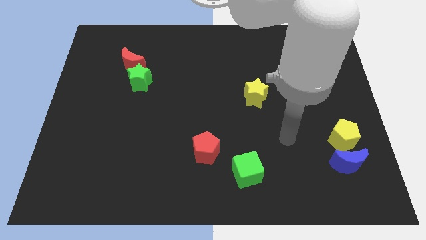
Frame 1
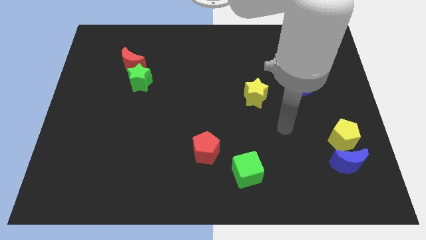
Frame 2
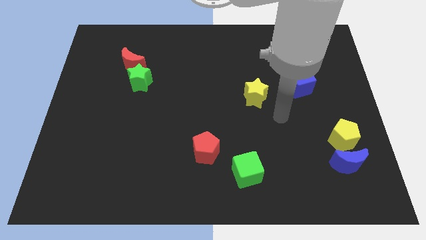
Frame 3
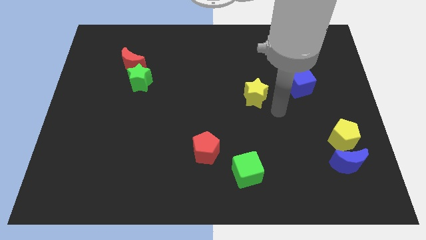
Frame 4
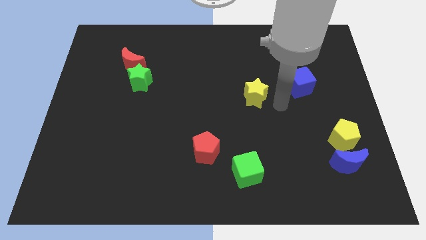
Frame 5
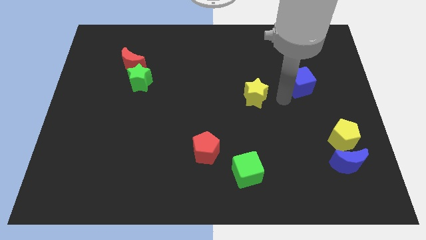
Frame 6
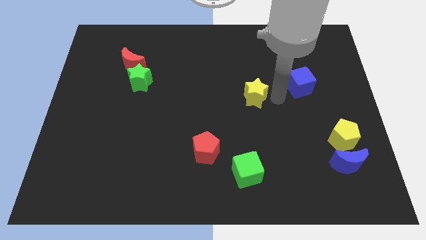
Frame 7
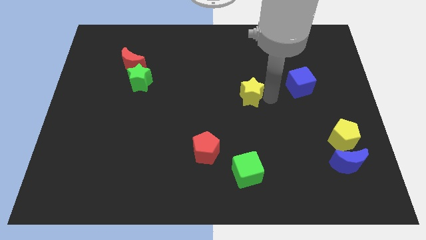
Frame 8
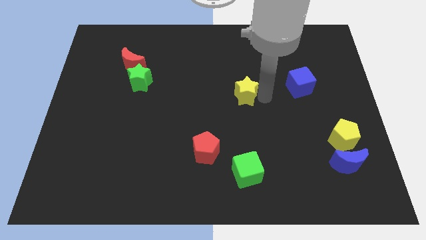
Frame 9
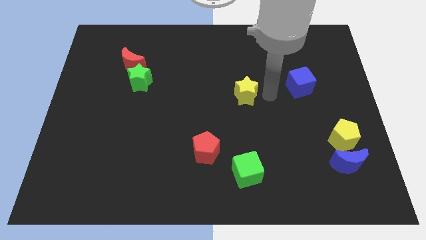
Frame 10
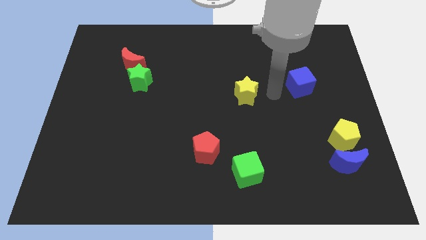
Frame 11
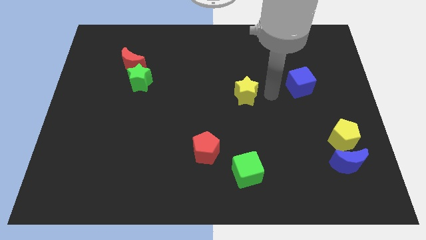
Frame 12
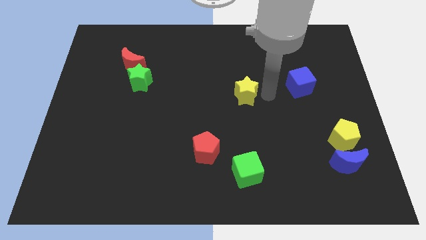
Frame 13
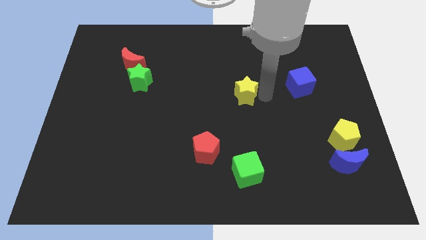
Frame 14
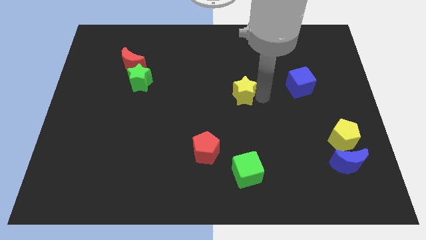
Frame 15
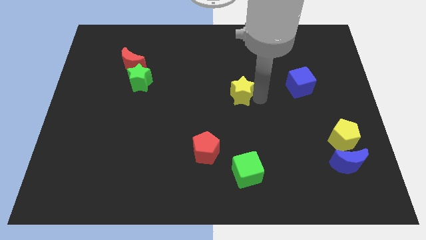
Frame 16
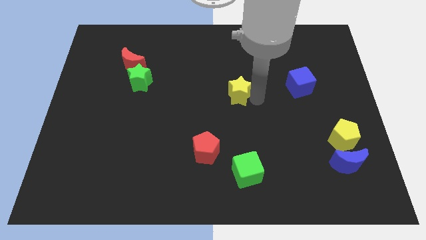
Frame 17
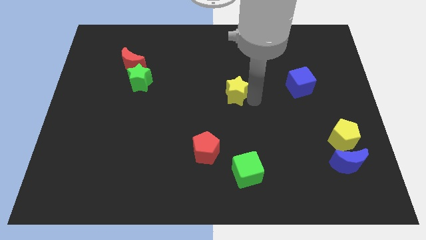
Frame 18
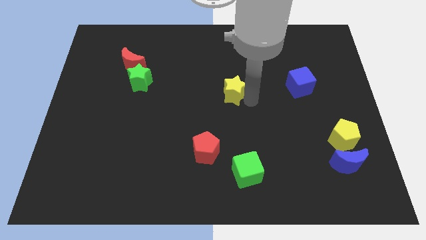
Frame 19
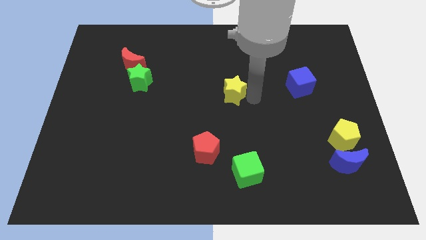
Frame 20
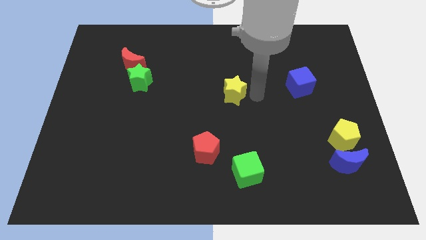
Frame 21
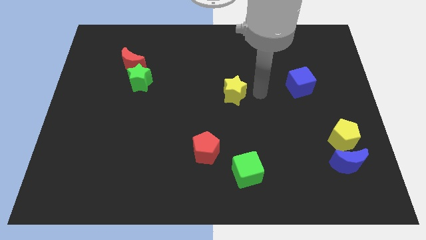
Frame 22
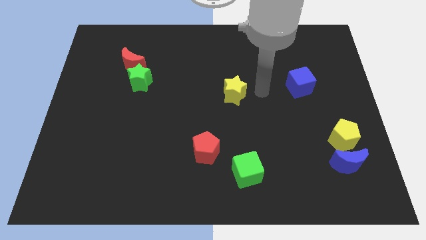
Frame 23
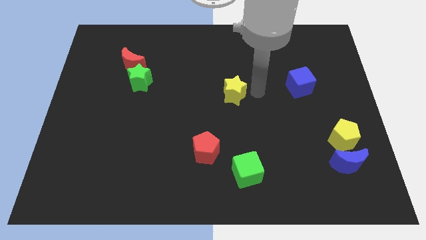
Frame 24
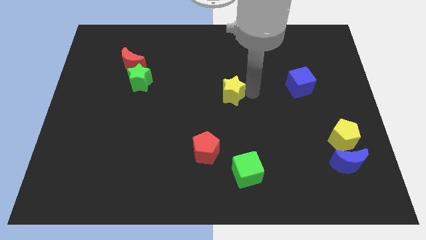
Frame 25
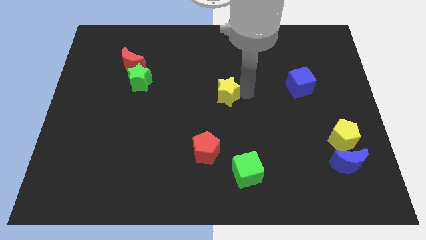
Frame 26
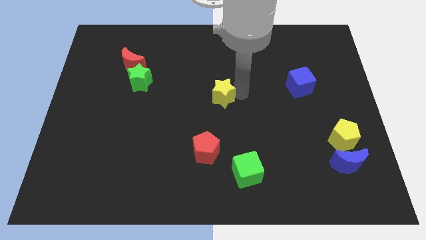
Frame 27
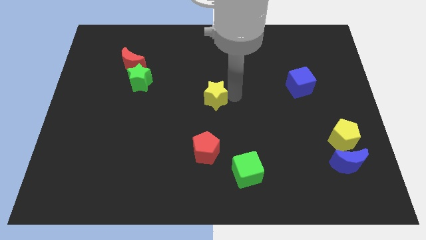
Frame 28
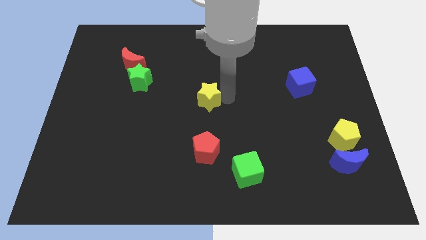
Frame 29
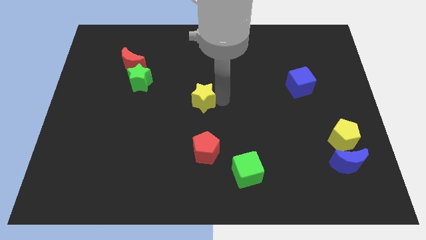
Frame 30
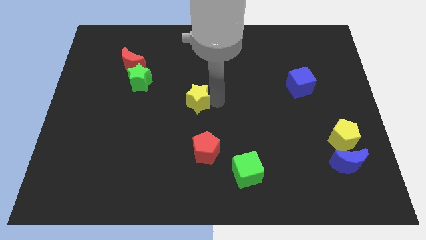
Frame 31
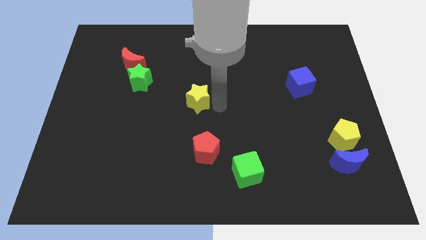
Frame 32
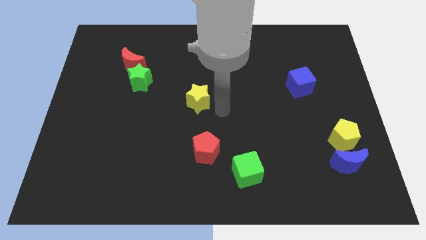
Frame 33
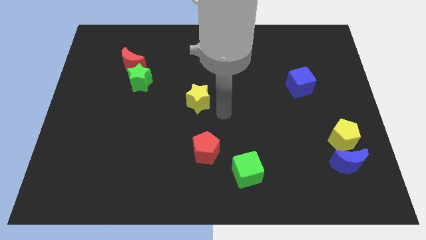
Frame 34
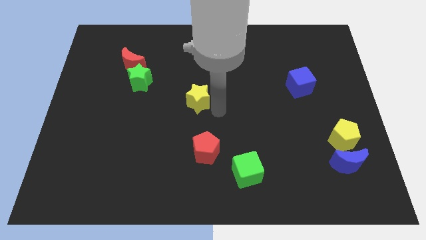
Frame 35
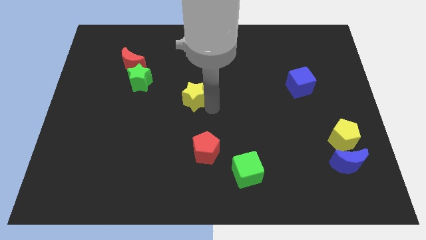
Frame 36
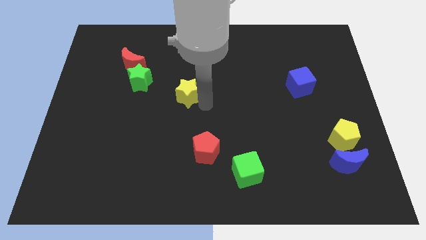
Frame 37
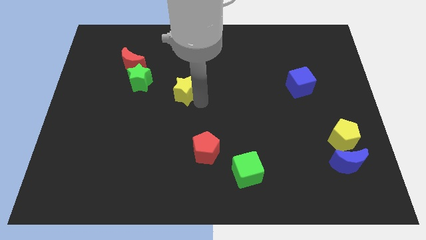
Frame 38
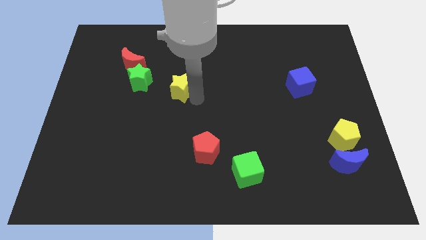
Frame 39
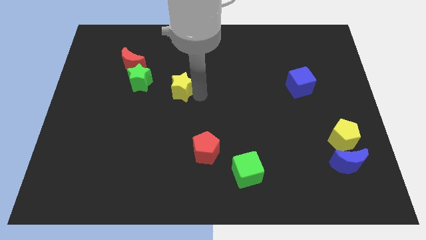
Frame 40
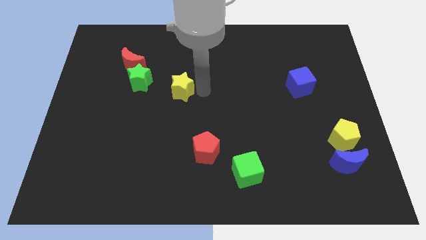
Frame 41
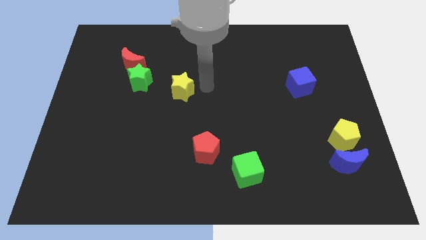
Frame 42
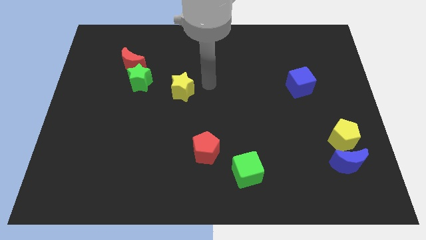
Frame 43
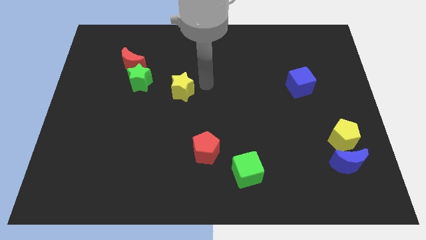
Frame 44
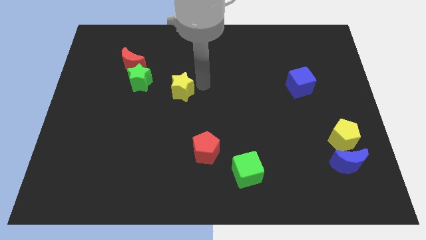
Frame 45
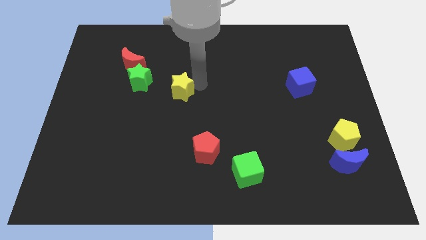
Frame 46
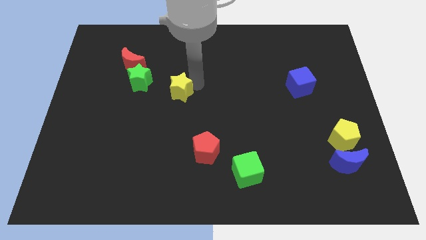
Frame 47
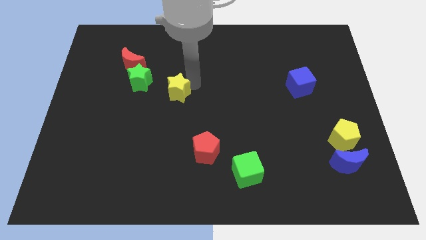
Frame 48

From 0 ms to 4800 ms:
move the yellow star to the bottom right of the green star

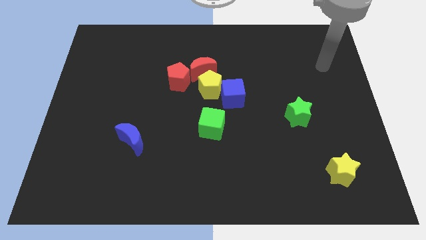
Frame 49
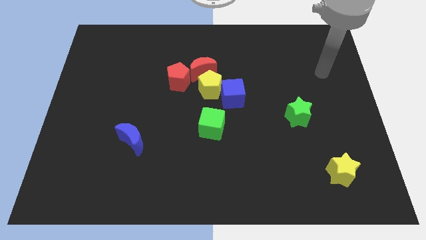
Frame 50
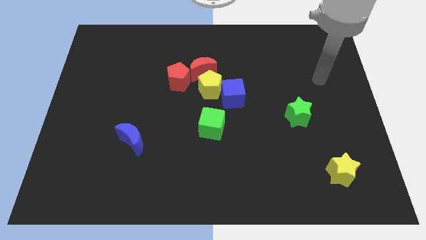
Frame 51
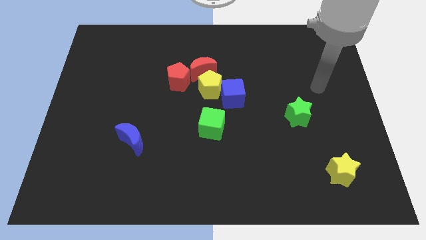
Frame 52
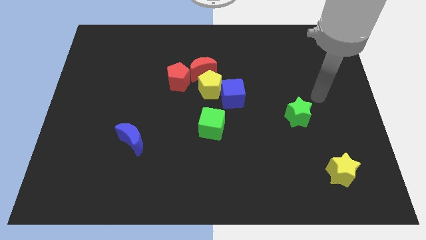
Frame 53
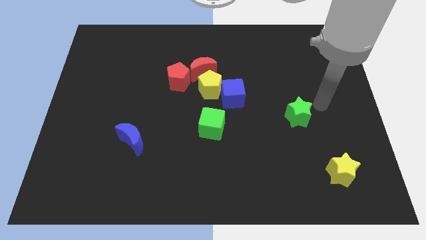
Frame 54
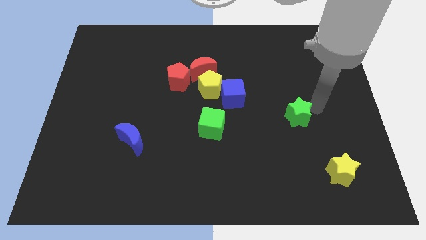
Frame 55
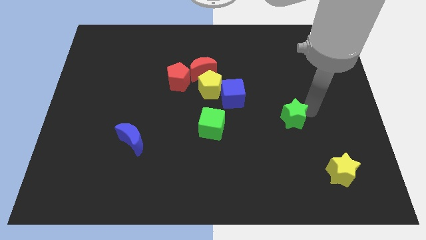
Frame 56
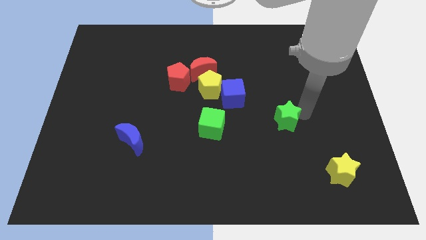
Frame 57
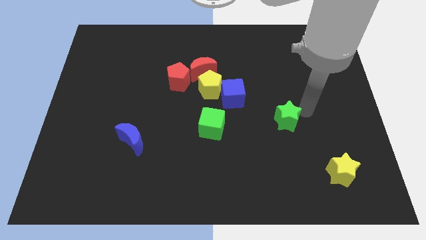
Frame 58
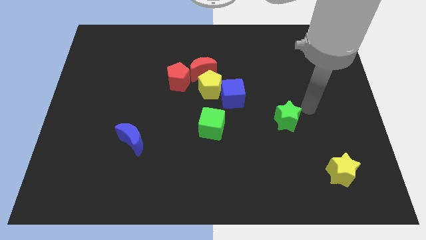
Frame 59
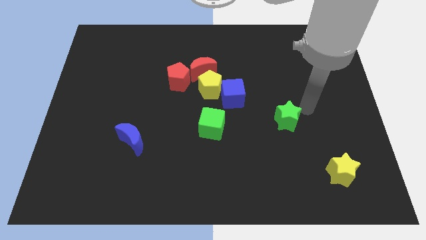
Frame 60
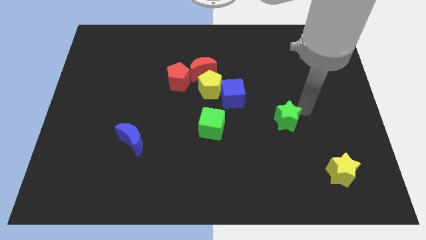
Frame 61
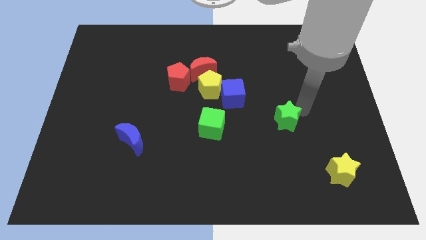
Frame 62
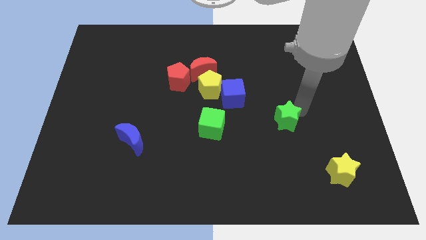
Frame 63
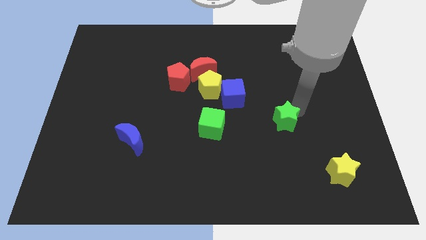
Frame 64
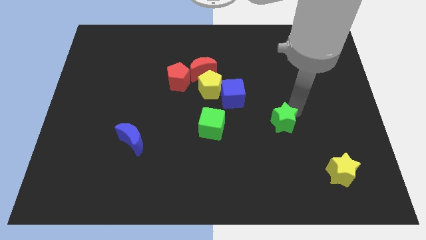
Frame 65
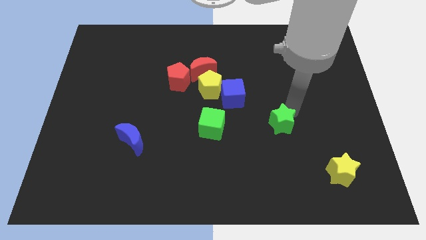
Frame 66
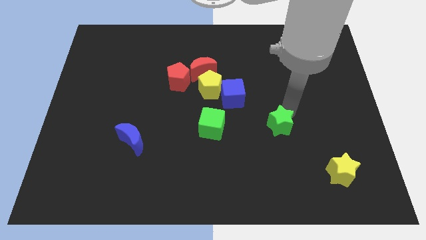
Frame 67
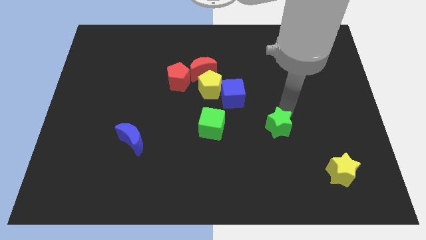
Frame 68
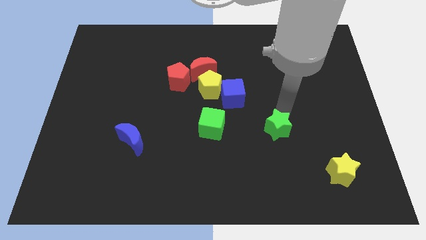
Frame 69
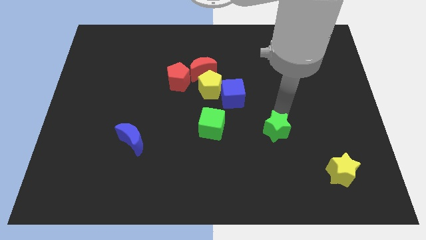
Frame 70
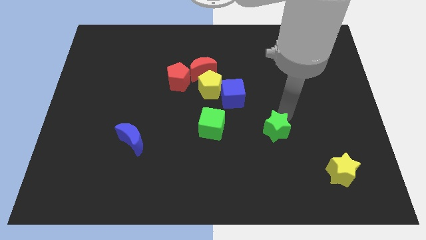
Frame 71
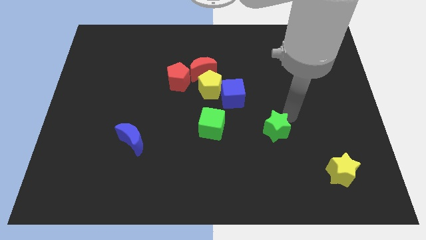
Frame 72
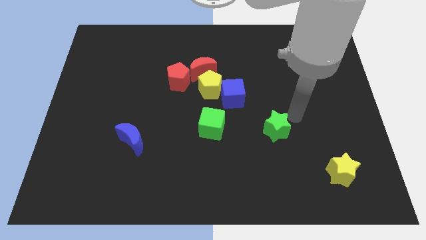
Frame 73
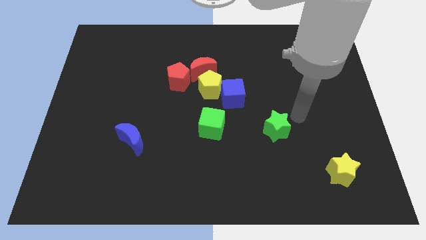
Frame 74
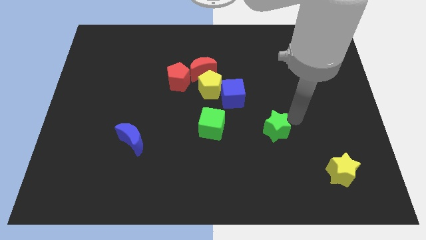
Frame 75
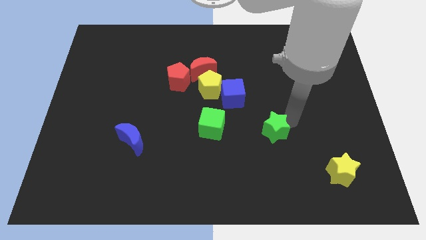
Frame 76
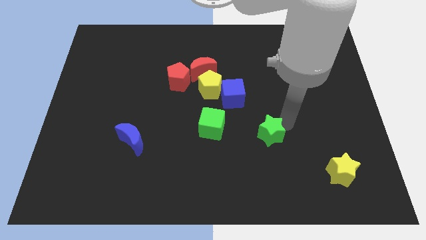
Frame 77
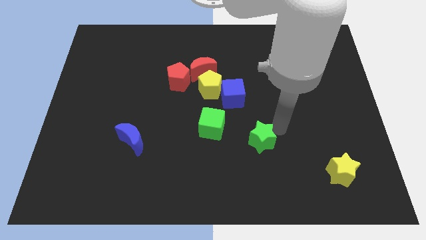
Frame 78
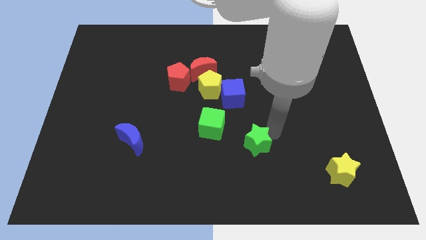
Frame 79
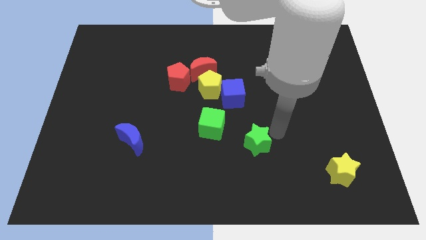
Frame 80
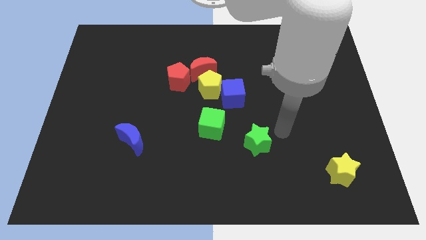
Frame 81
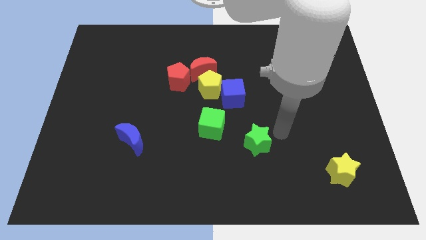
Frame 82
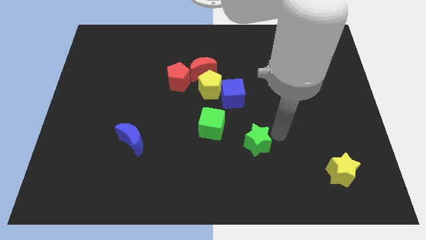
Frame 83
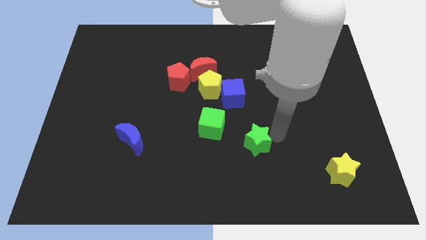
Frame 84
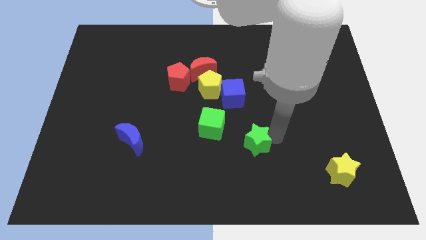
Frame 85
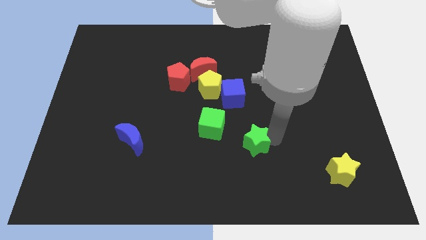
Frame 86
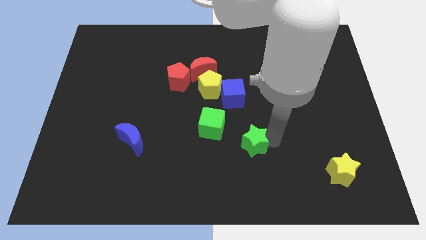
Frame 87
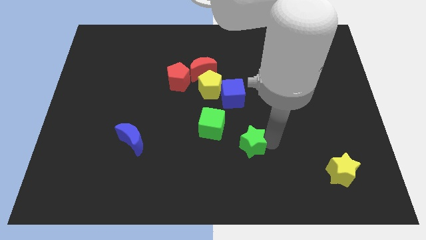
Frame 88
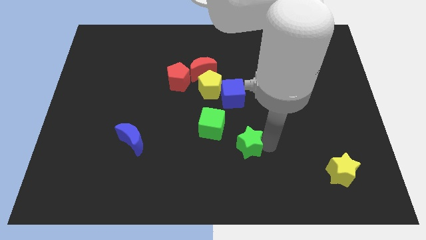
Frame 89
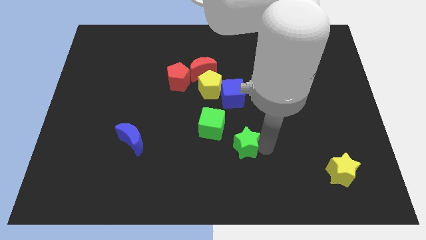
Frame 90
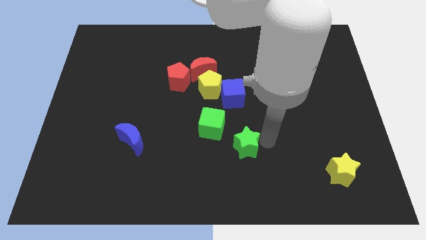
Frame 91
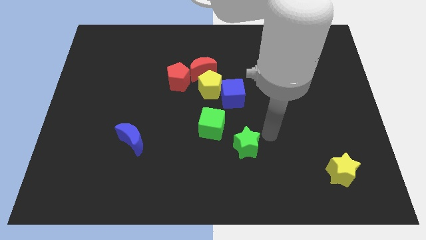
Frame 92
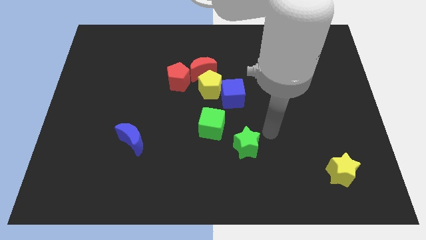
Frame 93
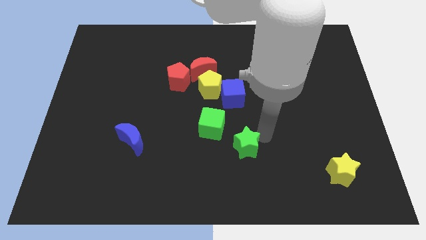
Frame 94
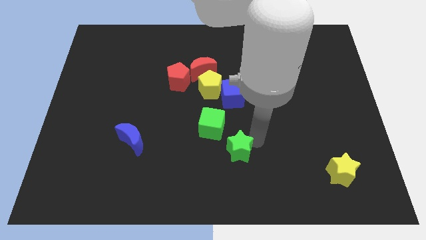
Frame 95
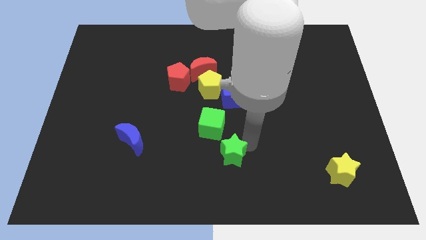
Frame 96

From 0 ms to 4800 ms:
move the green star below the green cube
